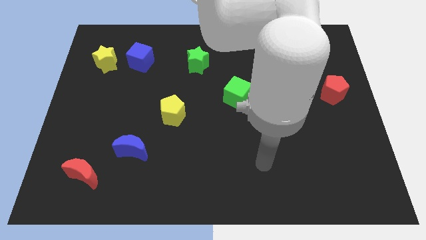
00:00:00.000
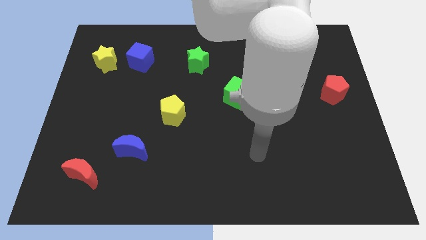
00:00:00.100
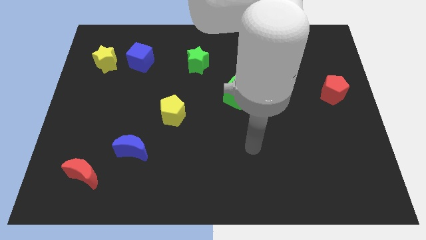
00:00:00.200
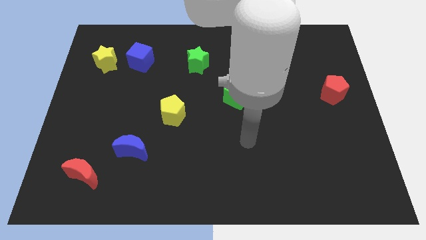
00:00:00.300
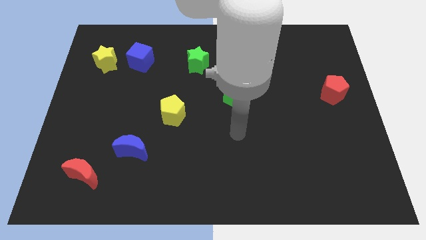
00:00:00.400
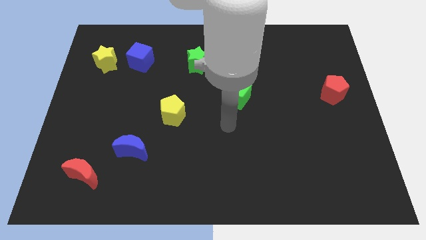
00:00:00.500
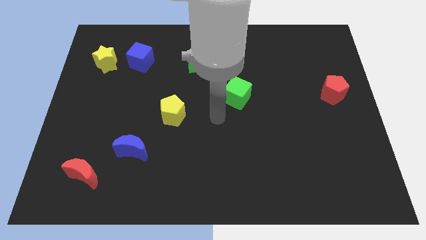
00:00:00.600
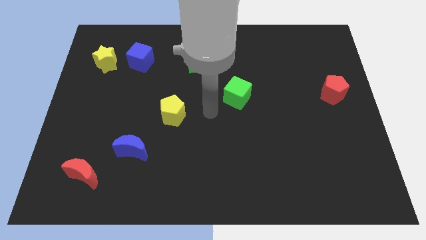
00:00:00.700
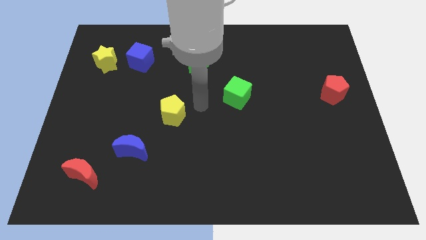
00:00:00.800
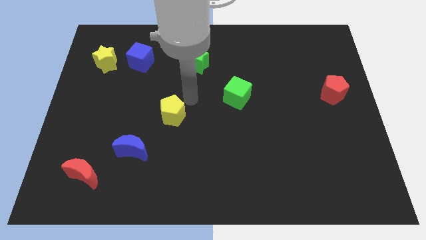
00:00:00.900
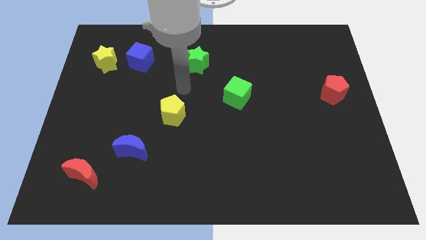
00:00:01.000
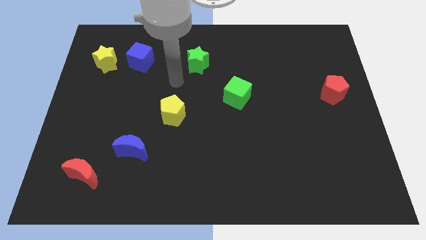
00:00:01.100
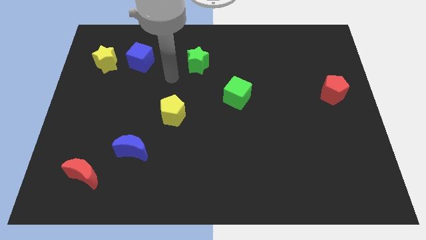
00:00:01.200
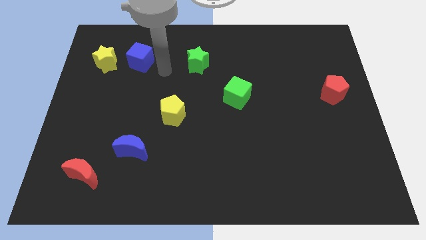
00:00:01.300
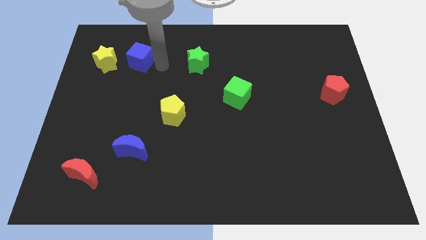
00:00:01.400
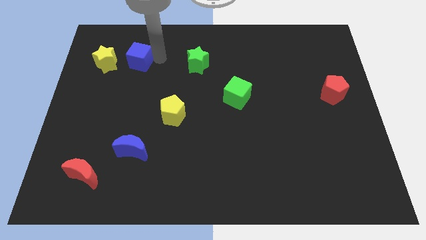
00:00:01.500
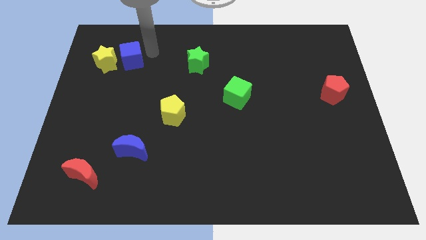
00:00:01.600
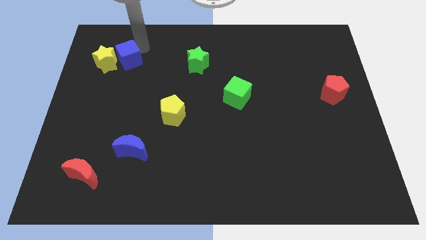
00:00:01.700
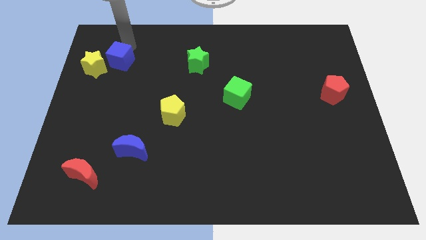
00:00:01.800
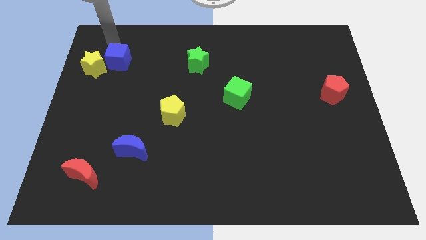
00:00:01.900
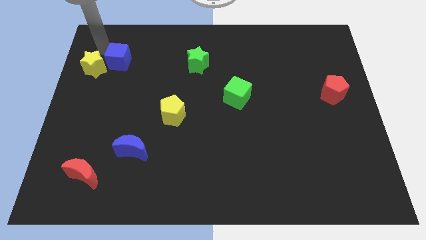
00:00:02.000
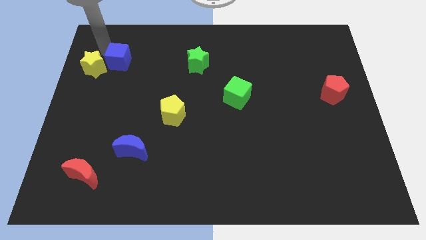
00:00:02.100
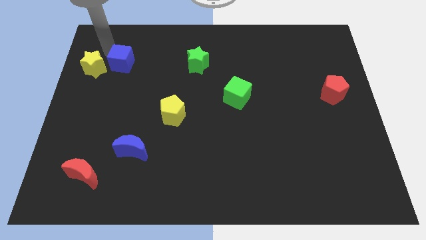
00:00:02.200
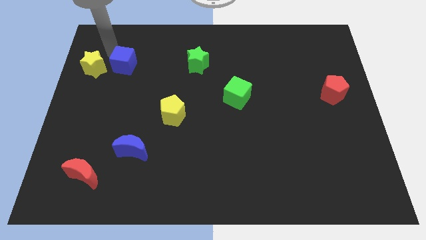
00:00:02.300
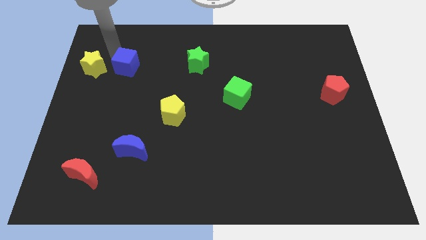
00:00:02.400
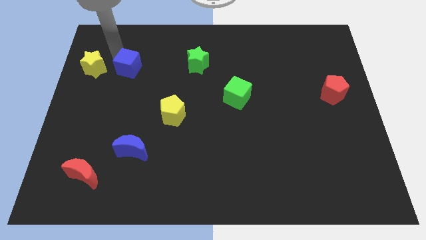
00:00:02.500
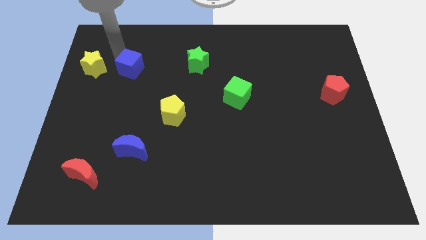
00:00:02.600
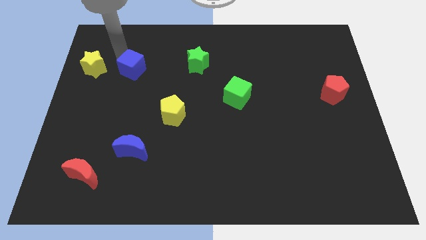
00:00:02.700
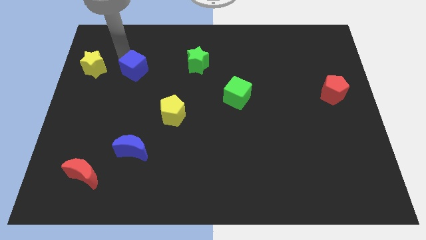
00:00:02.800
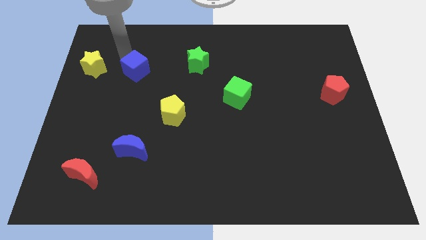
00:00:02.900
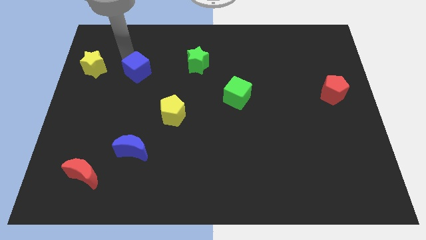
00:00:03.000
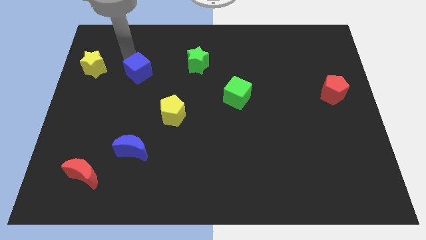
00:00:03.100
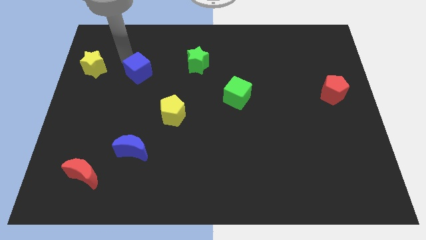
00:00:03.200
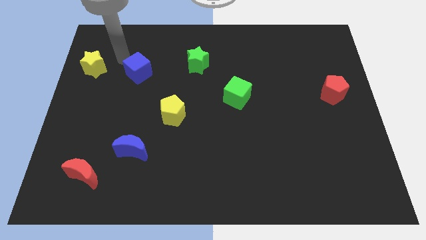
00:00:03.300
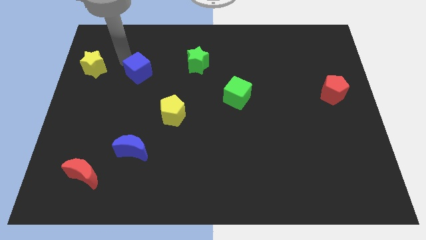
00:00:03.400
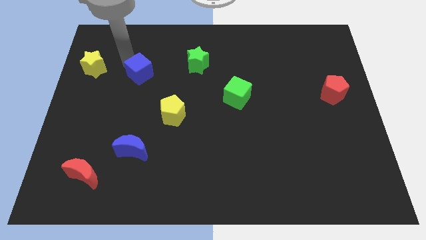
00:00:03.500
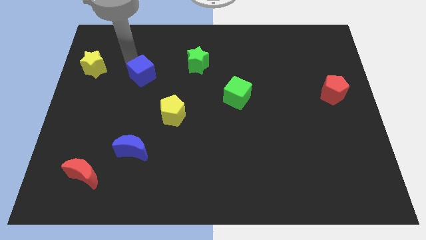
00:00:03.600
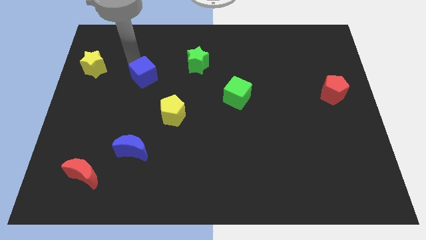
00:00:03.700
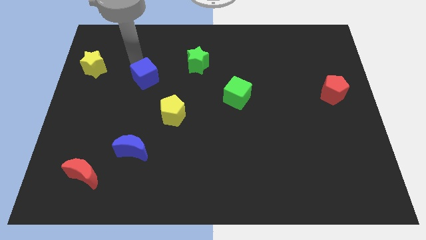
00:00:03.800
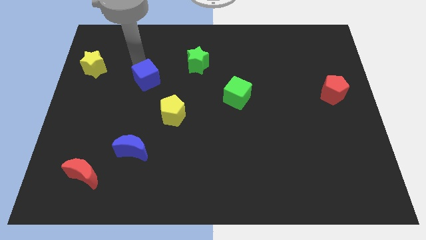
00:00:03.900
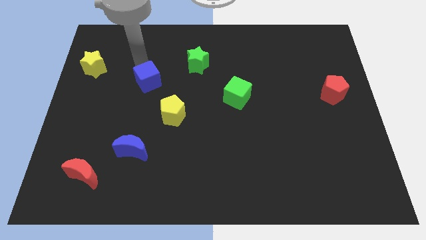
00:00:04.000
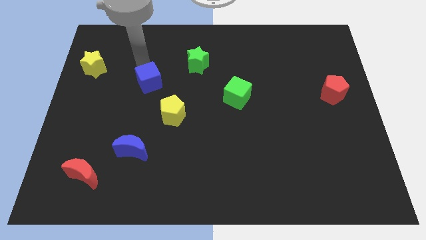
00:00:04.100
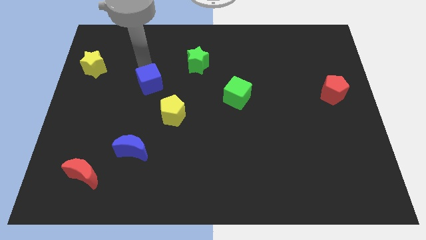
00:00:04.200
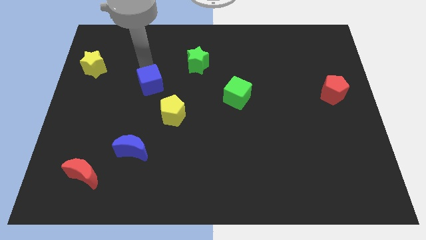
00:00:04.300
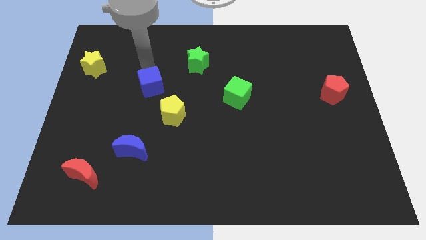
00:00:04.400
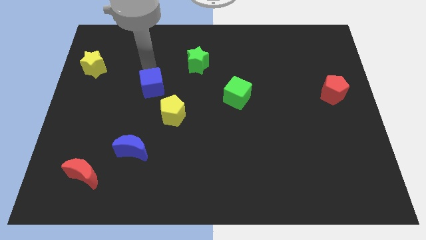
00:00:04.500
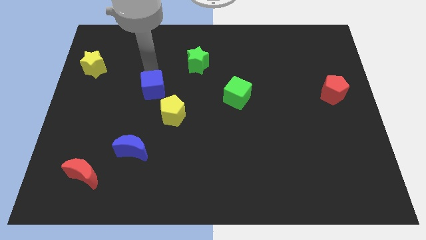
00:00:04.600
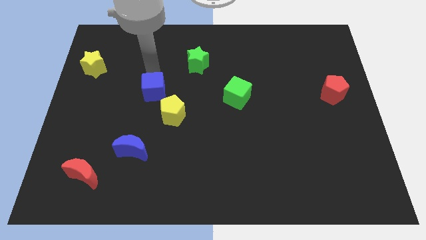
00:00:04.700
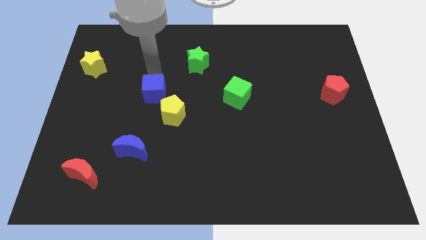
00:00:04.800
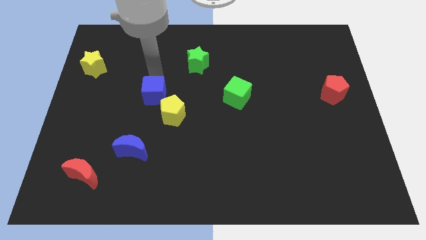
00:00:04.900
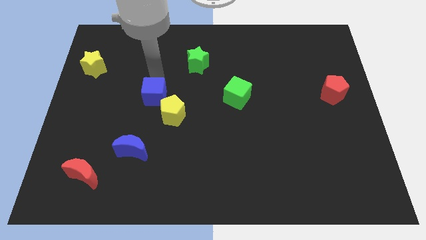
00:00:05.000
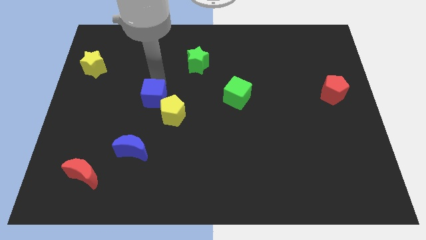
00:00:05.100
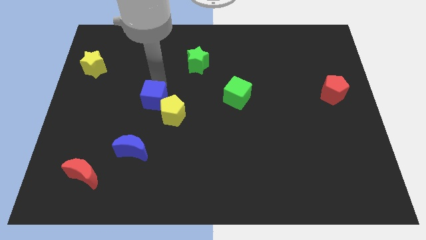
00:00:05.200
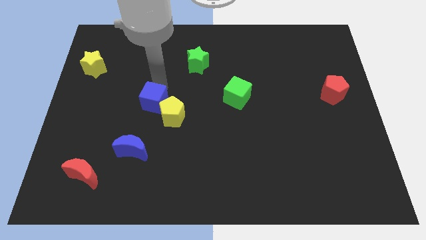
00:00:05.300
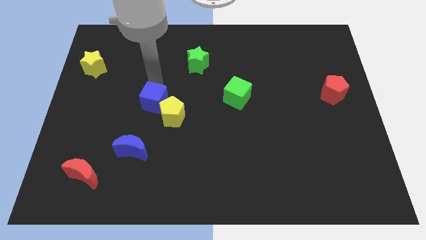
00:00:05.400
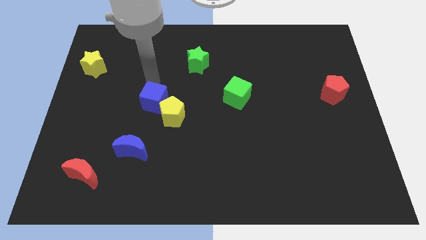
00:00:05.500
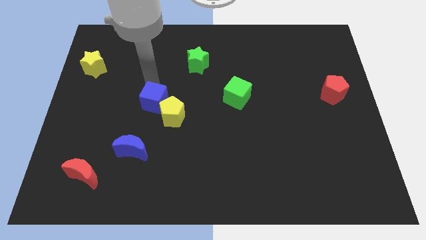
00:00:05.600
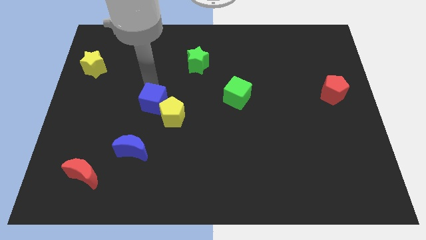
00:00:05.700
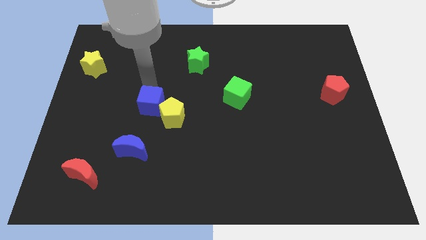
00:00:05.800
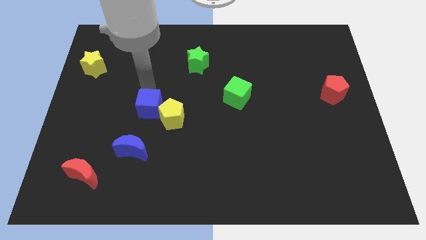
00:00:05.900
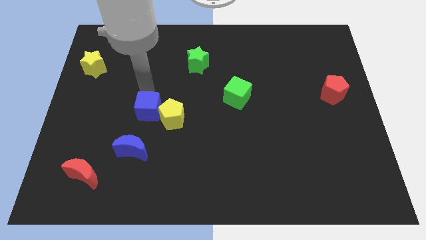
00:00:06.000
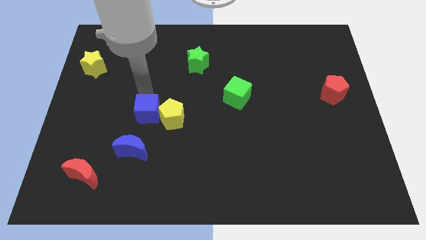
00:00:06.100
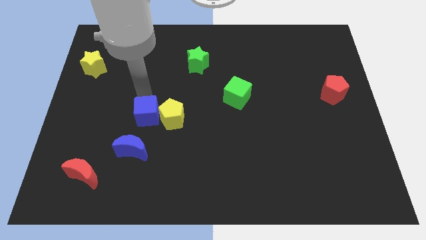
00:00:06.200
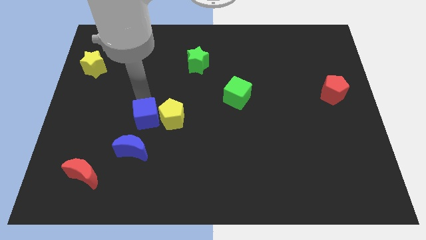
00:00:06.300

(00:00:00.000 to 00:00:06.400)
push the blue cube diagonally up and to the right of the blue moon
